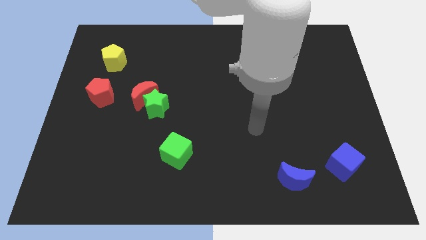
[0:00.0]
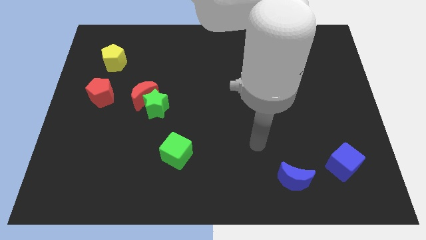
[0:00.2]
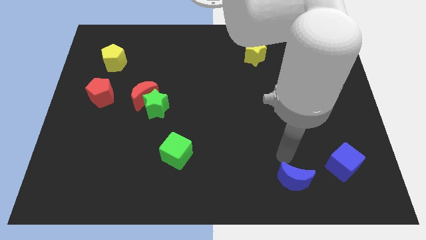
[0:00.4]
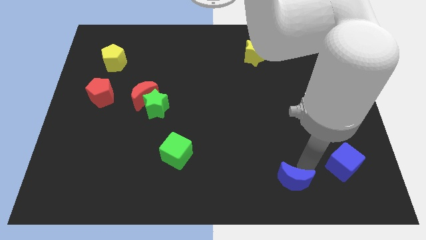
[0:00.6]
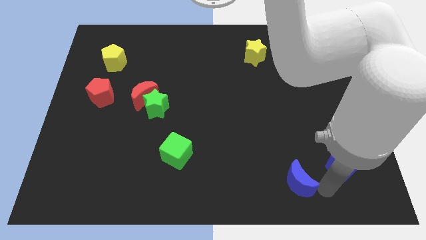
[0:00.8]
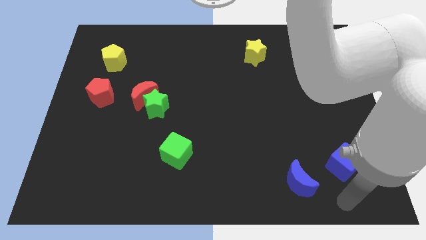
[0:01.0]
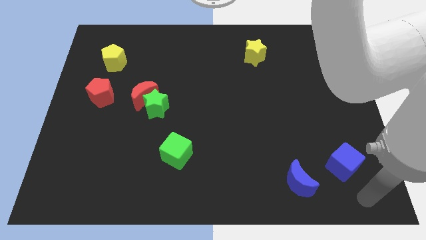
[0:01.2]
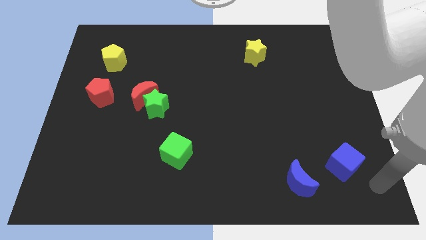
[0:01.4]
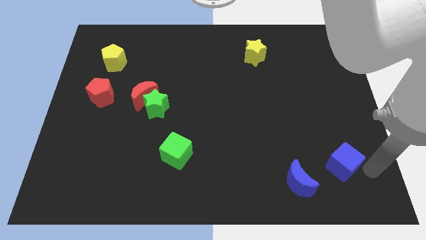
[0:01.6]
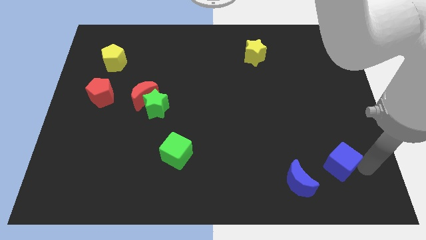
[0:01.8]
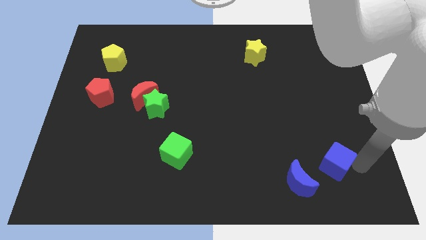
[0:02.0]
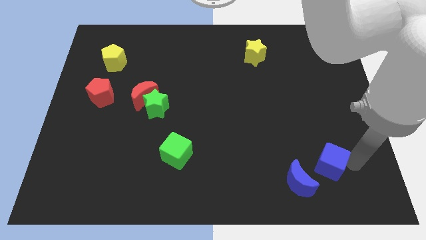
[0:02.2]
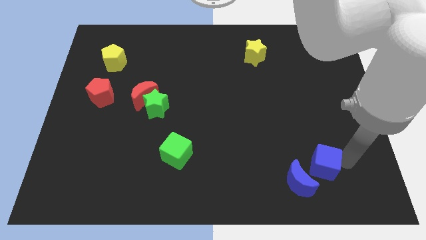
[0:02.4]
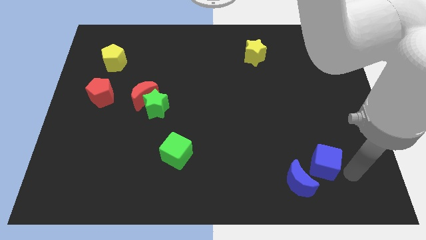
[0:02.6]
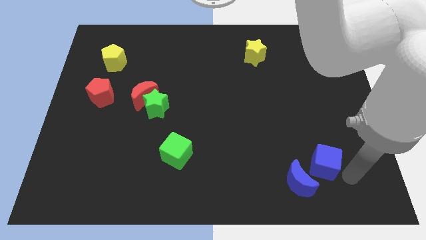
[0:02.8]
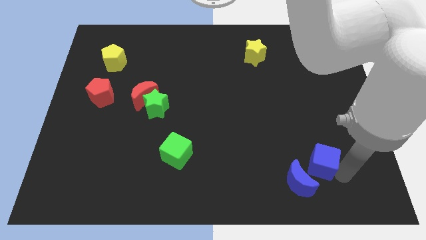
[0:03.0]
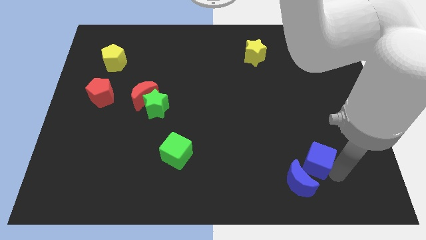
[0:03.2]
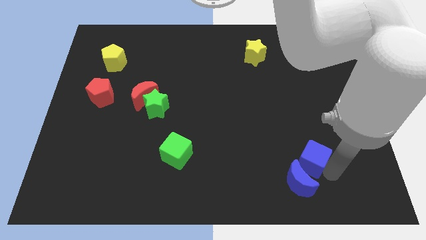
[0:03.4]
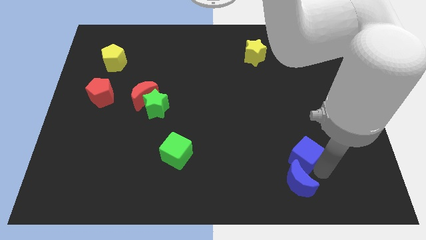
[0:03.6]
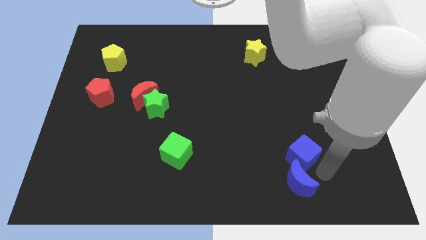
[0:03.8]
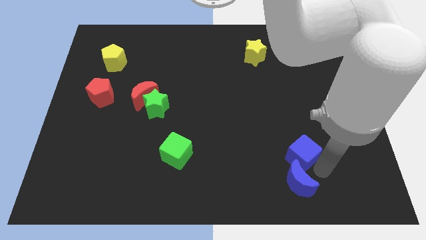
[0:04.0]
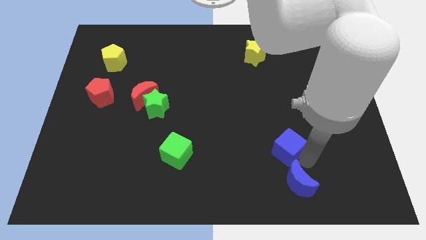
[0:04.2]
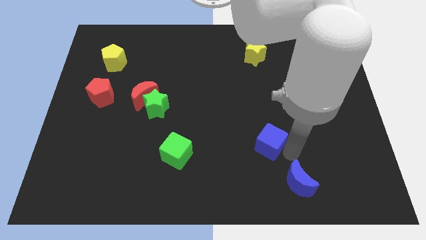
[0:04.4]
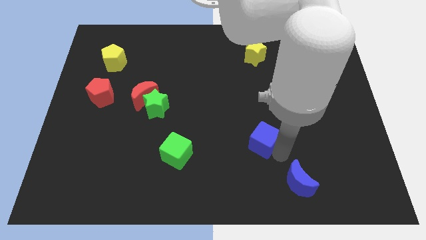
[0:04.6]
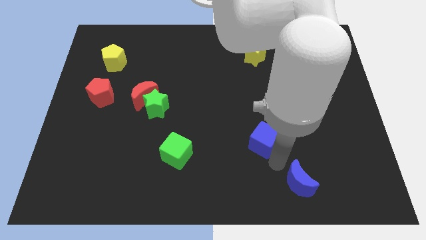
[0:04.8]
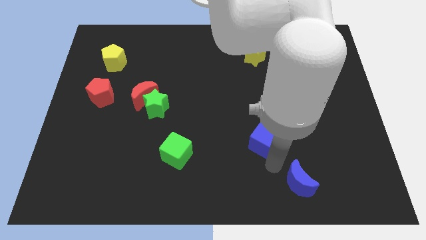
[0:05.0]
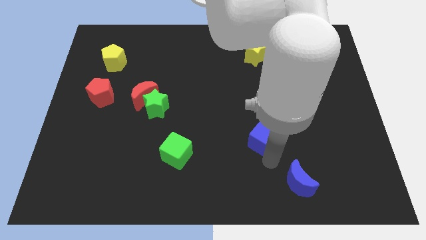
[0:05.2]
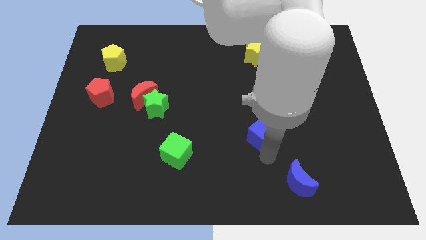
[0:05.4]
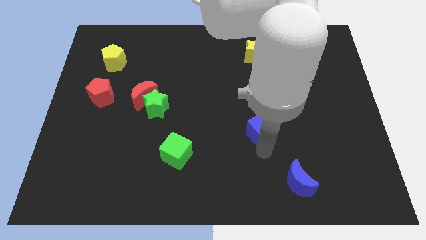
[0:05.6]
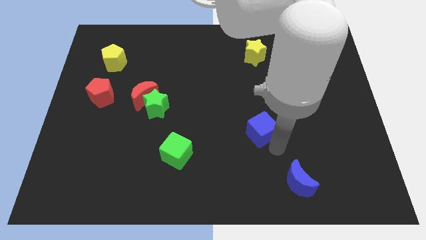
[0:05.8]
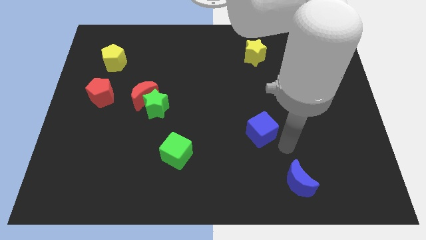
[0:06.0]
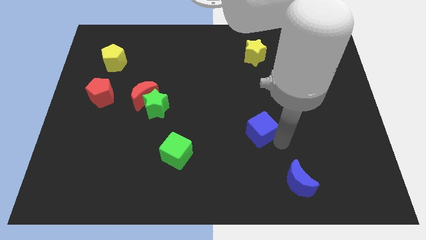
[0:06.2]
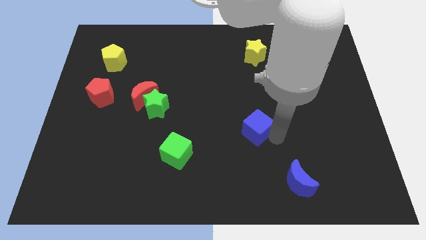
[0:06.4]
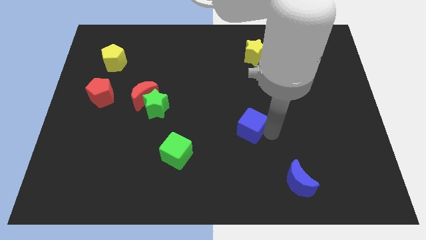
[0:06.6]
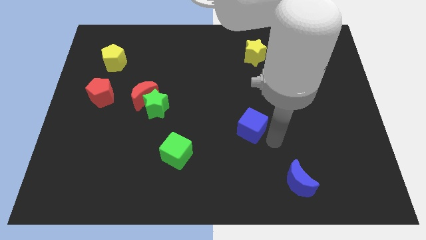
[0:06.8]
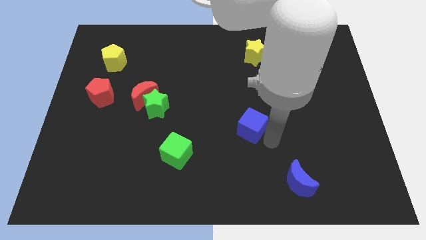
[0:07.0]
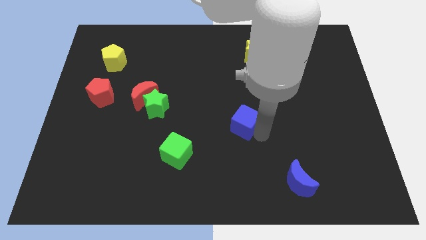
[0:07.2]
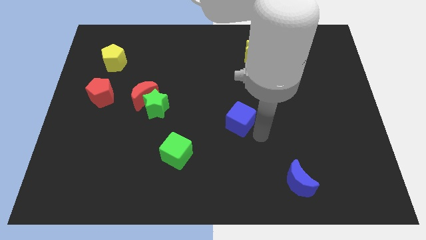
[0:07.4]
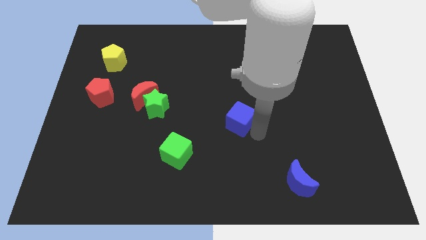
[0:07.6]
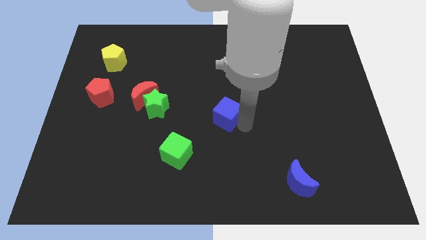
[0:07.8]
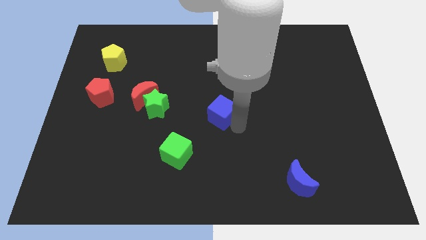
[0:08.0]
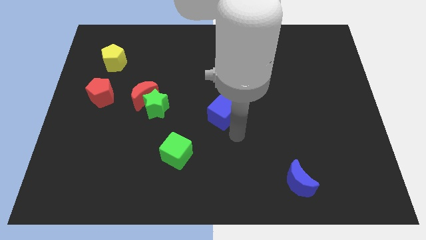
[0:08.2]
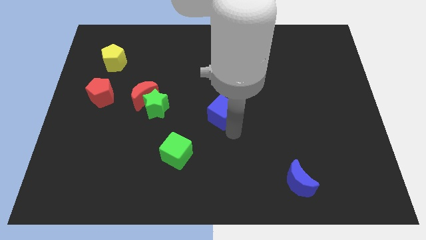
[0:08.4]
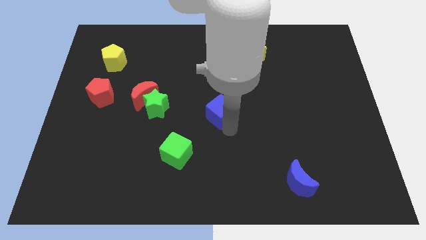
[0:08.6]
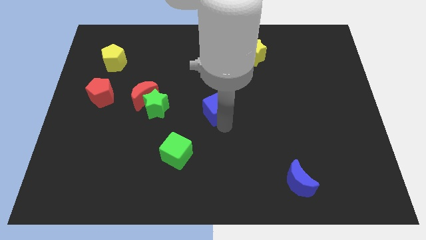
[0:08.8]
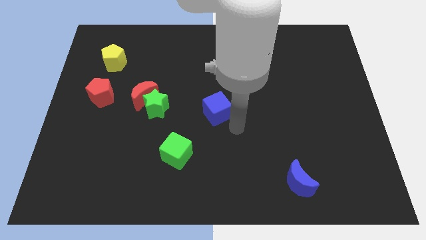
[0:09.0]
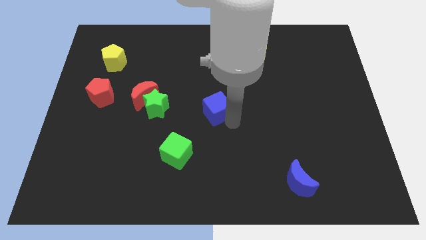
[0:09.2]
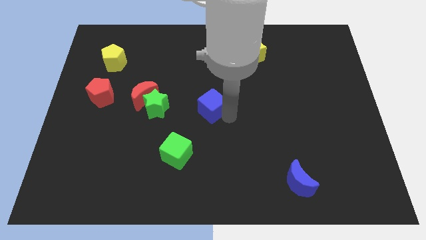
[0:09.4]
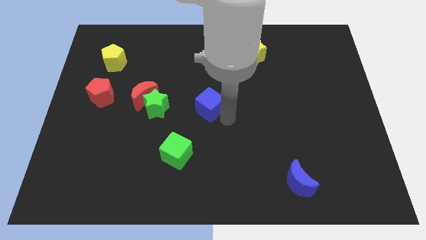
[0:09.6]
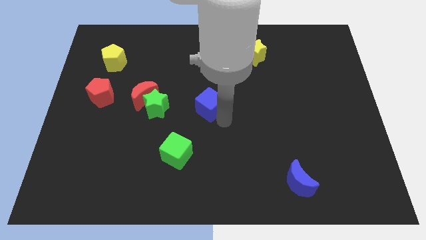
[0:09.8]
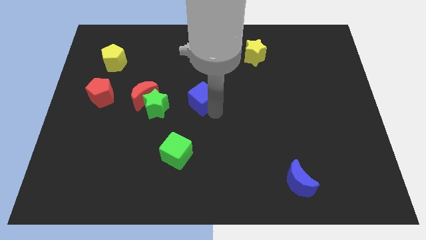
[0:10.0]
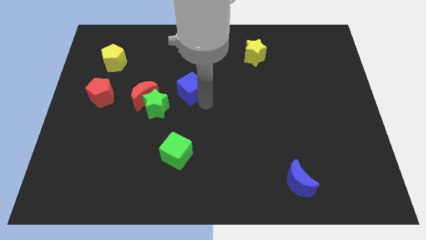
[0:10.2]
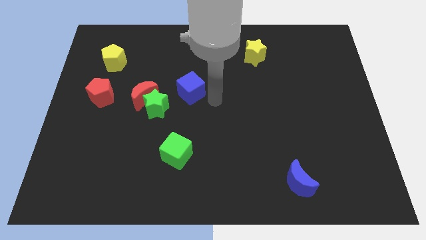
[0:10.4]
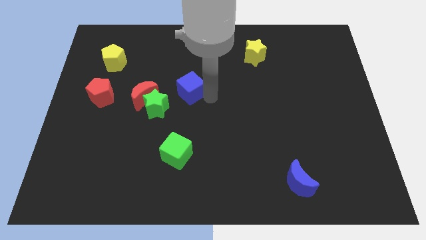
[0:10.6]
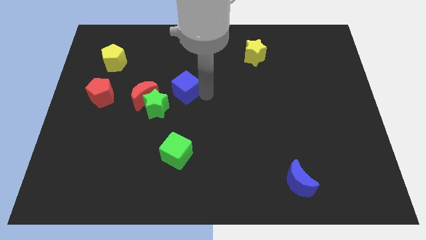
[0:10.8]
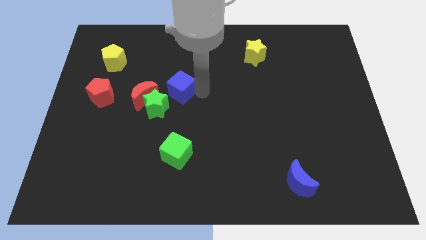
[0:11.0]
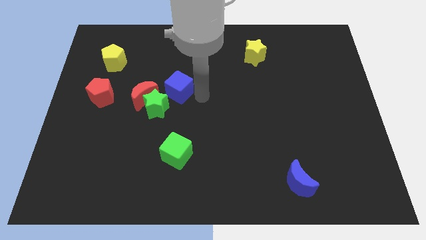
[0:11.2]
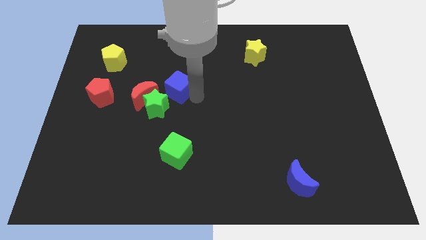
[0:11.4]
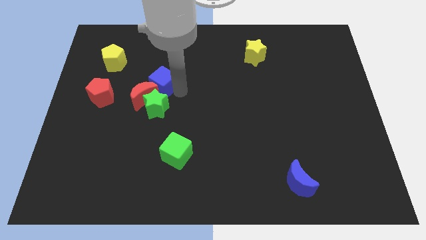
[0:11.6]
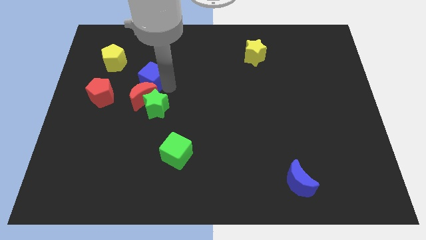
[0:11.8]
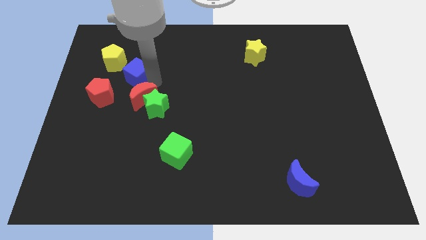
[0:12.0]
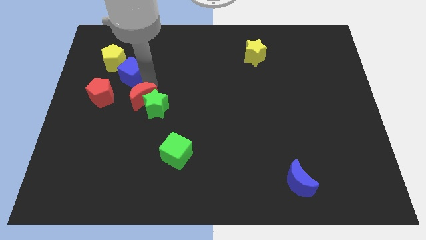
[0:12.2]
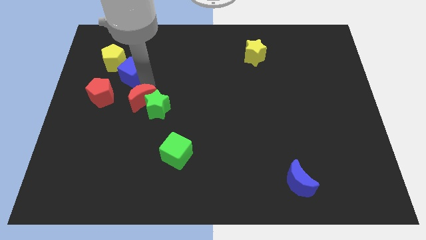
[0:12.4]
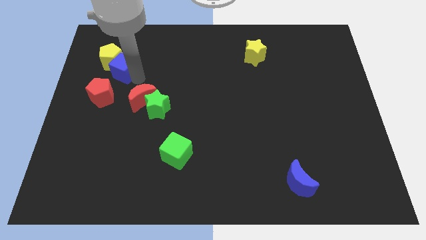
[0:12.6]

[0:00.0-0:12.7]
slide the blue cube close to the yellow pentagon

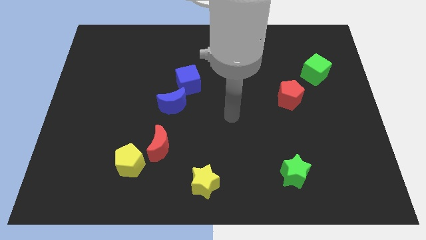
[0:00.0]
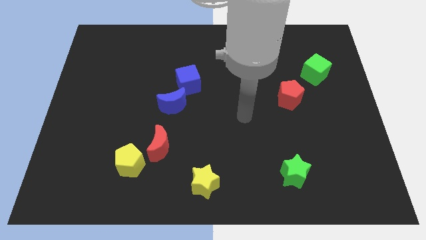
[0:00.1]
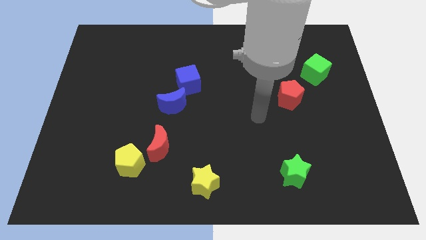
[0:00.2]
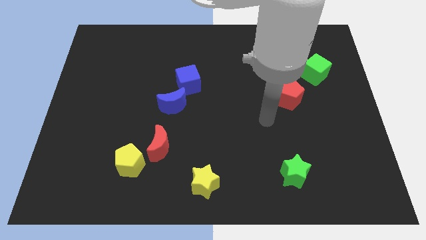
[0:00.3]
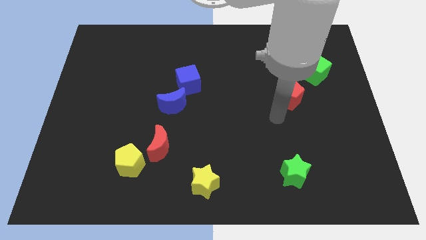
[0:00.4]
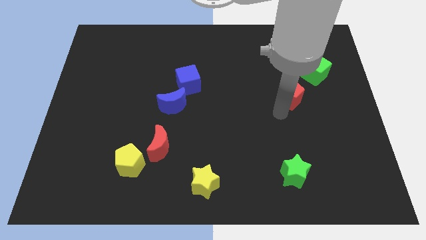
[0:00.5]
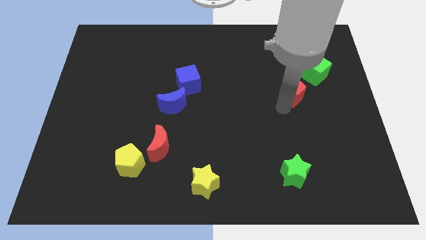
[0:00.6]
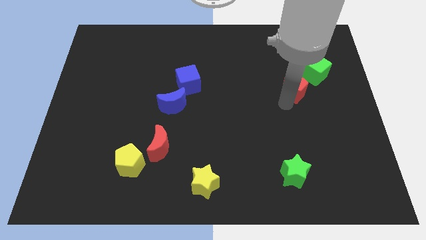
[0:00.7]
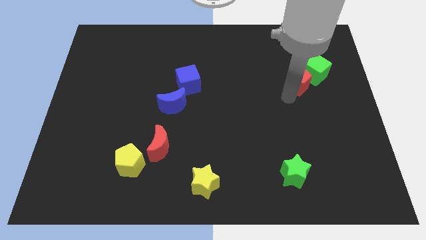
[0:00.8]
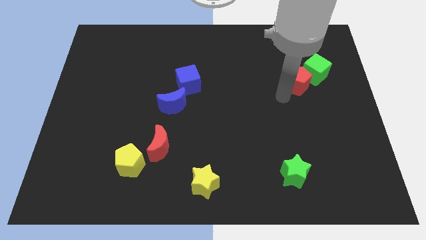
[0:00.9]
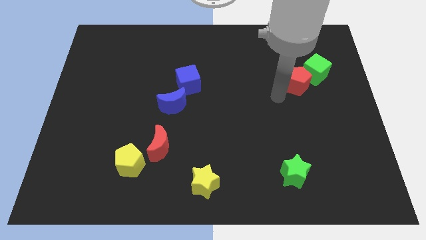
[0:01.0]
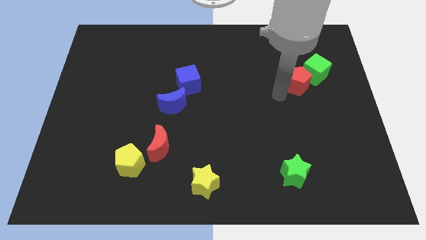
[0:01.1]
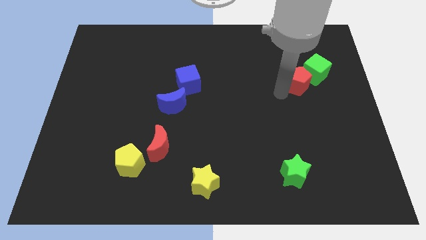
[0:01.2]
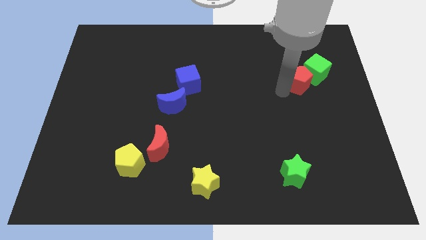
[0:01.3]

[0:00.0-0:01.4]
move the red pentagon next to the green cube
